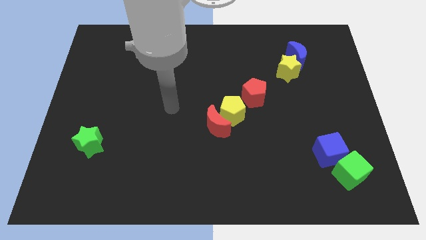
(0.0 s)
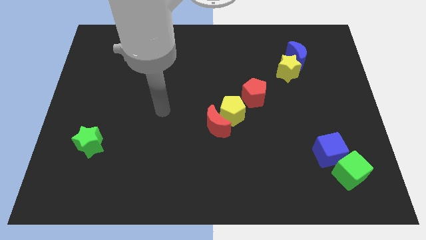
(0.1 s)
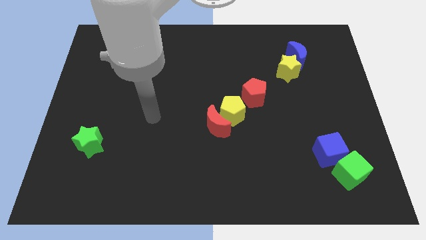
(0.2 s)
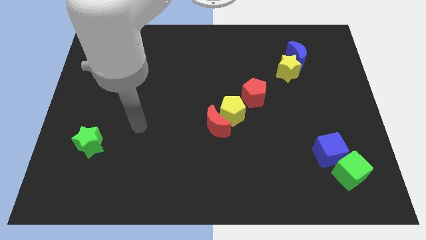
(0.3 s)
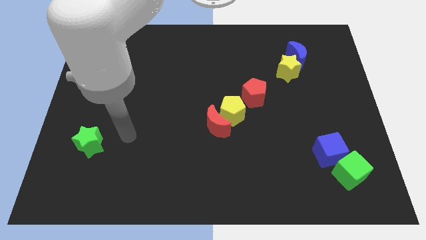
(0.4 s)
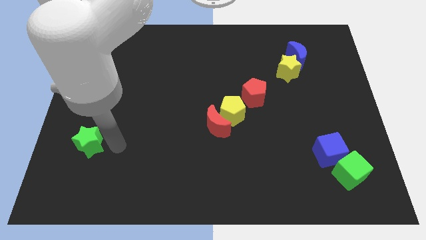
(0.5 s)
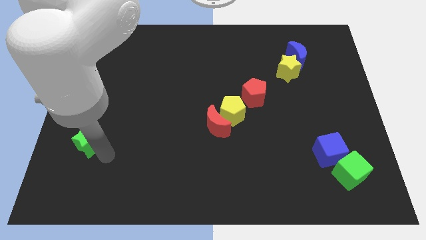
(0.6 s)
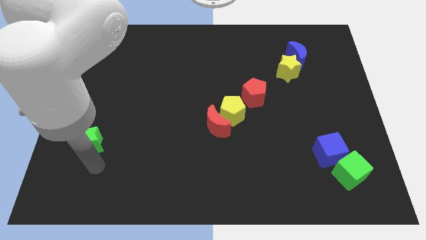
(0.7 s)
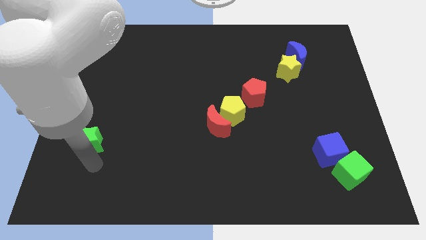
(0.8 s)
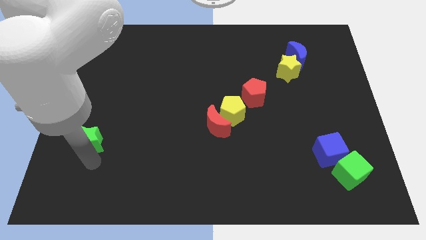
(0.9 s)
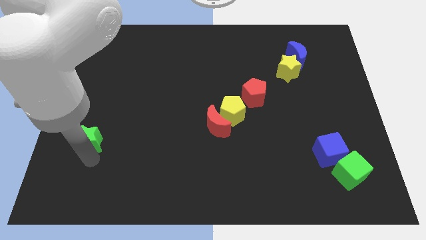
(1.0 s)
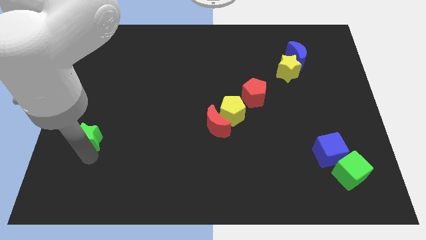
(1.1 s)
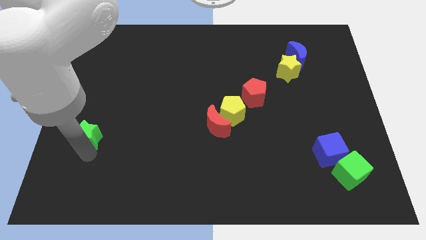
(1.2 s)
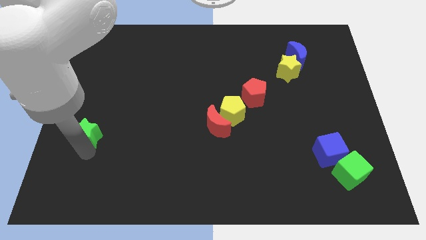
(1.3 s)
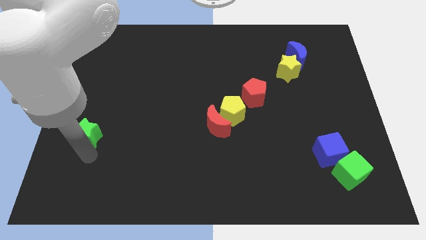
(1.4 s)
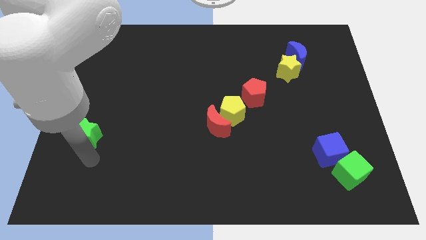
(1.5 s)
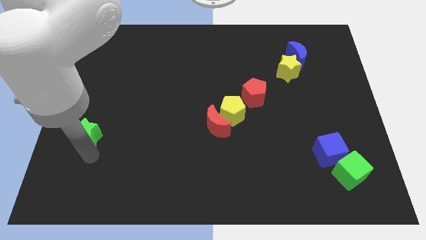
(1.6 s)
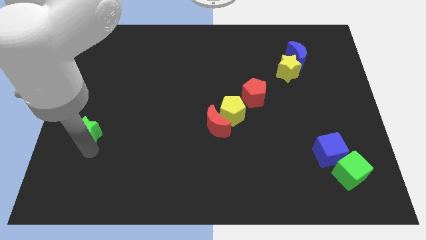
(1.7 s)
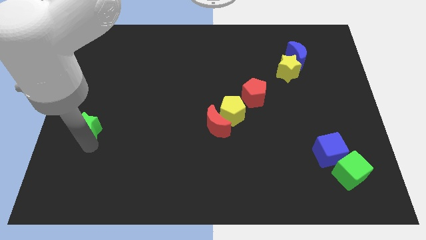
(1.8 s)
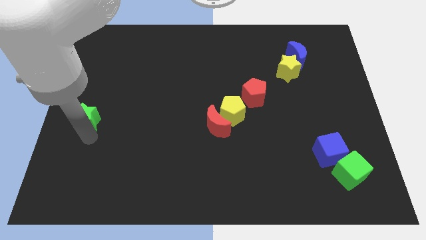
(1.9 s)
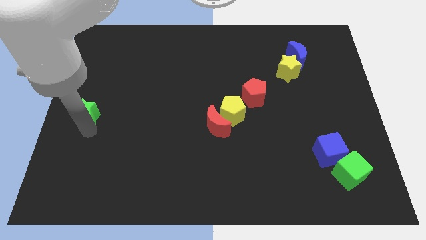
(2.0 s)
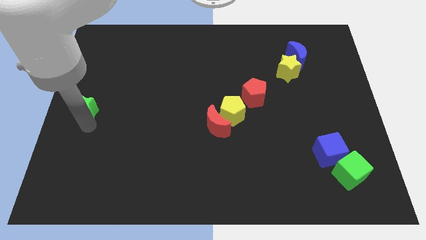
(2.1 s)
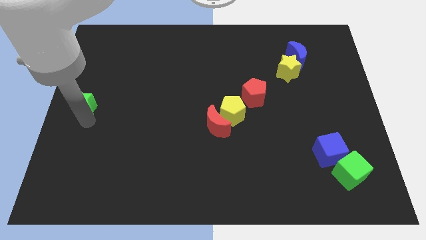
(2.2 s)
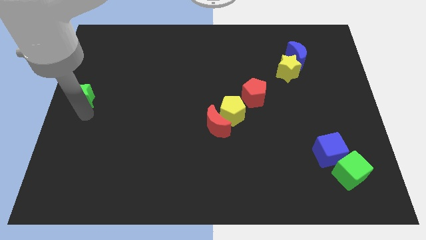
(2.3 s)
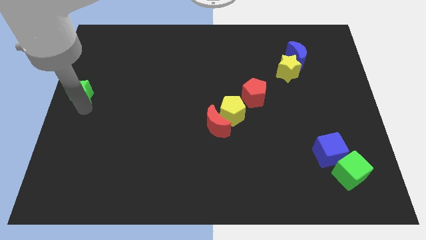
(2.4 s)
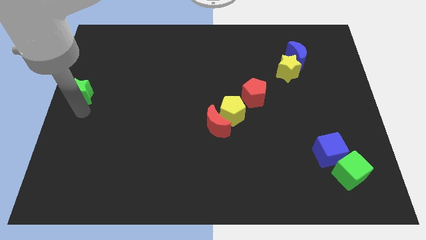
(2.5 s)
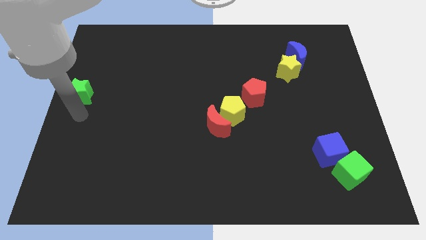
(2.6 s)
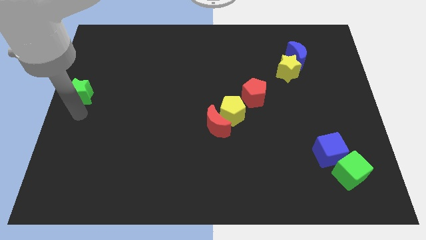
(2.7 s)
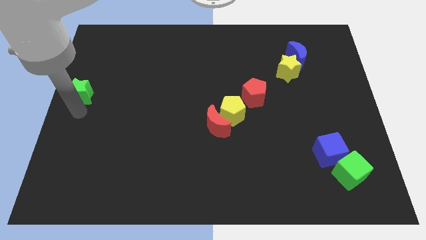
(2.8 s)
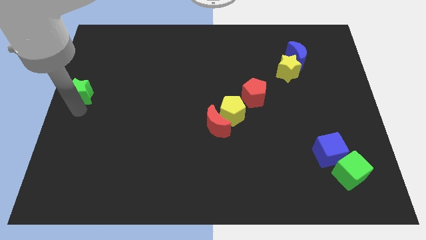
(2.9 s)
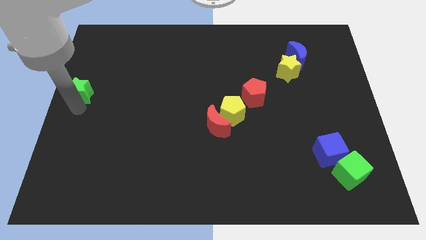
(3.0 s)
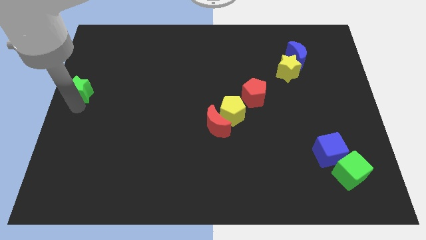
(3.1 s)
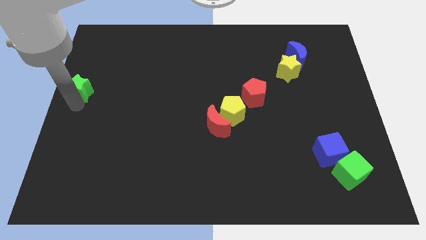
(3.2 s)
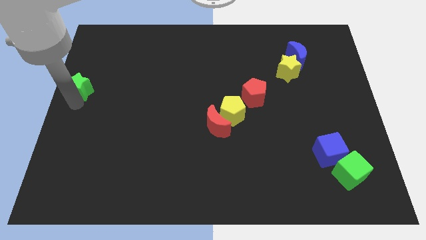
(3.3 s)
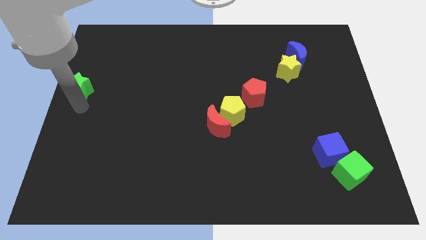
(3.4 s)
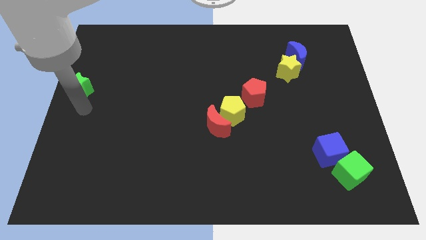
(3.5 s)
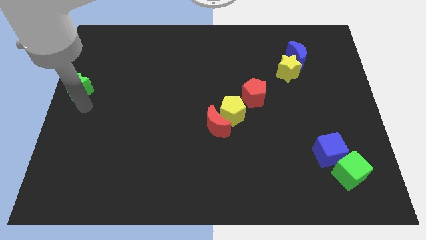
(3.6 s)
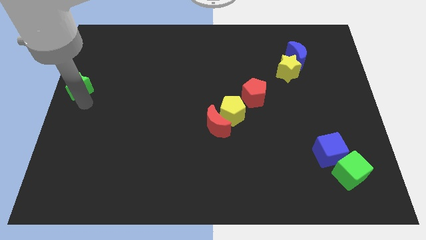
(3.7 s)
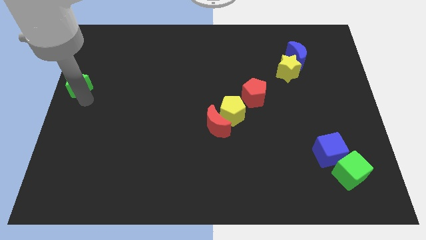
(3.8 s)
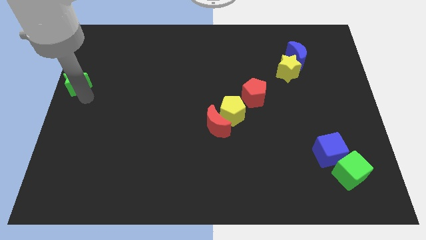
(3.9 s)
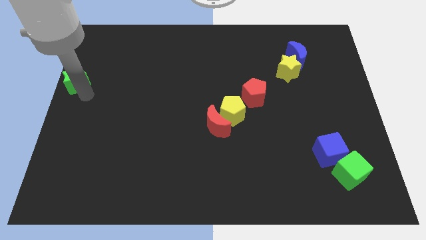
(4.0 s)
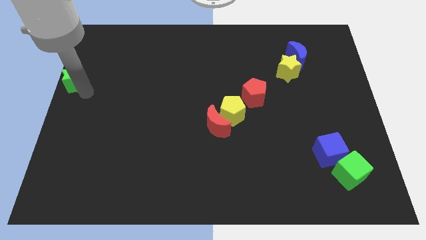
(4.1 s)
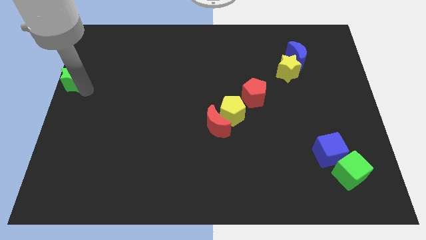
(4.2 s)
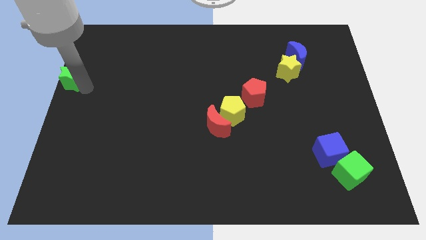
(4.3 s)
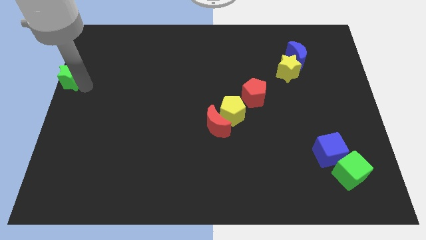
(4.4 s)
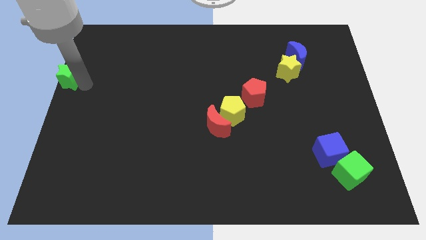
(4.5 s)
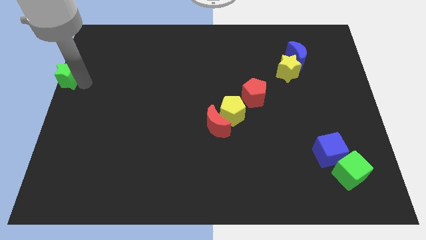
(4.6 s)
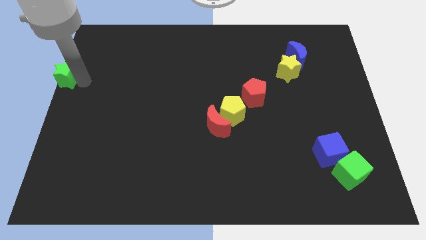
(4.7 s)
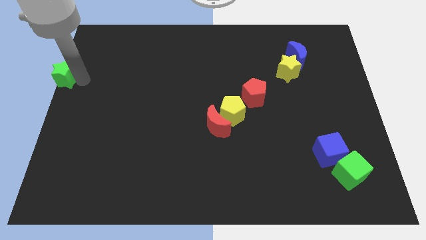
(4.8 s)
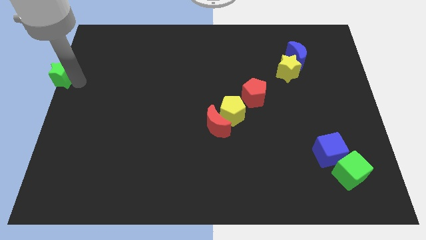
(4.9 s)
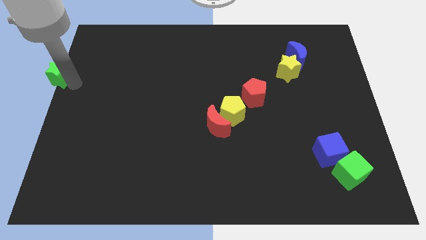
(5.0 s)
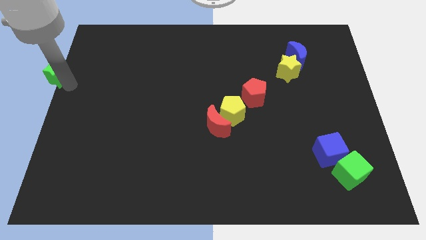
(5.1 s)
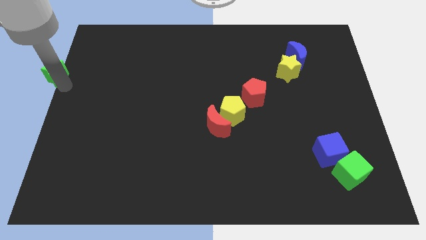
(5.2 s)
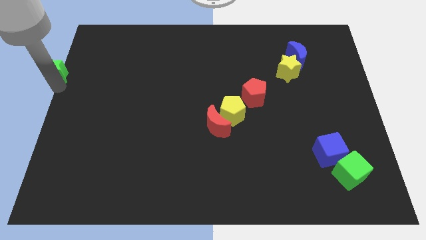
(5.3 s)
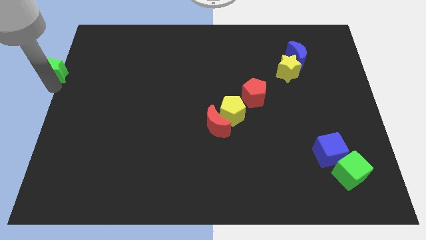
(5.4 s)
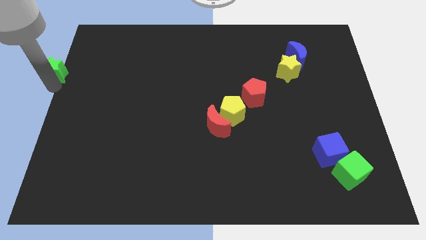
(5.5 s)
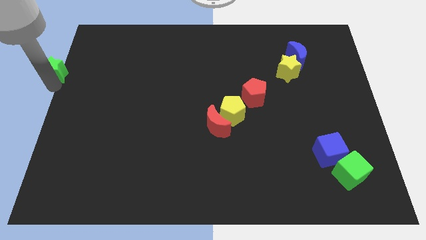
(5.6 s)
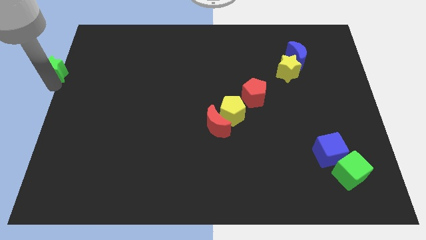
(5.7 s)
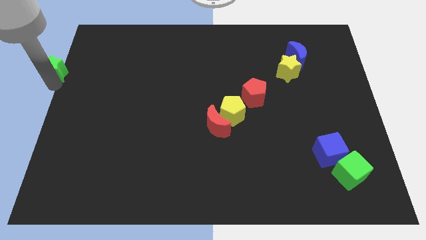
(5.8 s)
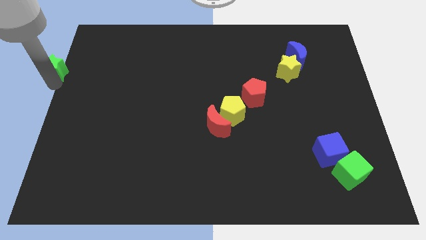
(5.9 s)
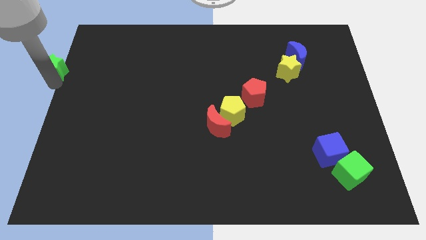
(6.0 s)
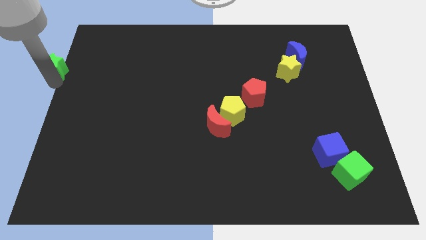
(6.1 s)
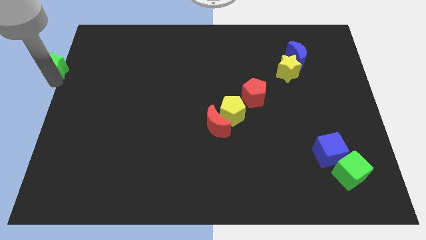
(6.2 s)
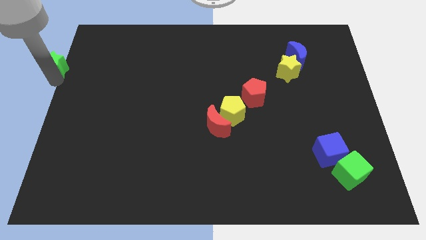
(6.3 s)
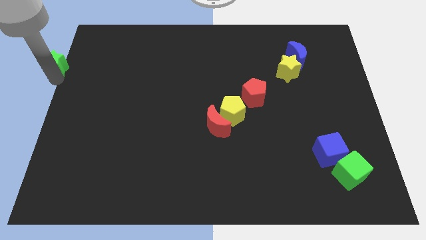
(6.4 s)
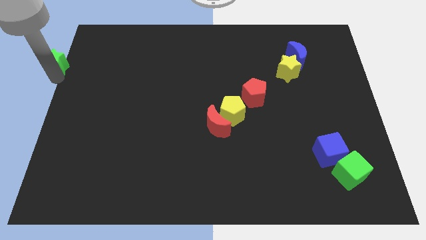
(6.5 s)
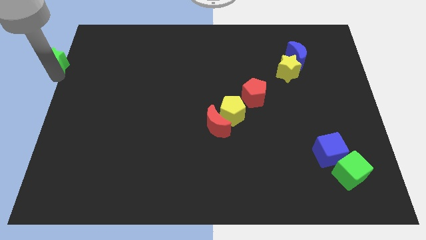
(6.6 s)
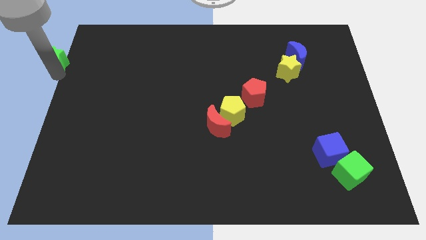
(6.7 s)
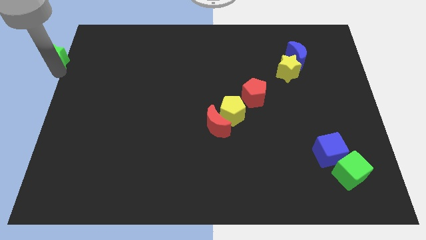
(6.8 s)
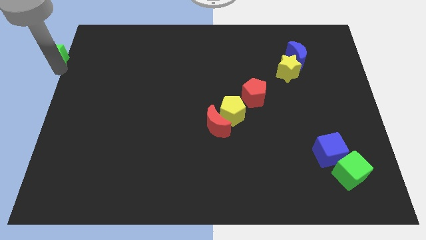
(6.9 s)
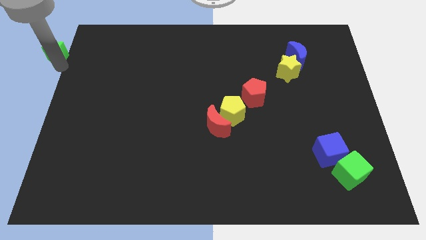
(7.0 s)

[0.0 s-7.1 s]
push the green star to the upper left corner
